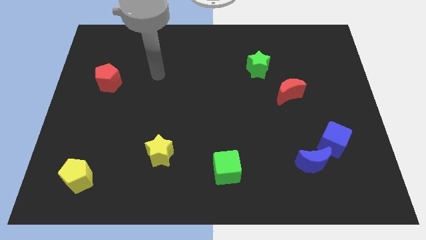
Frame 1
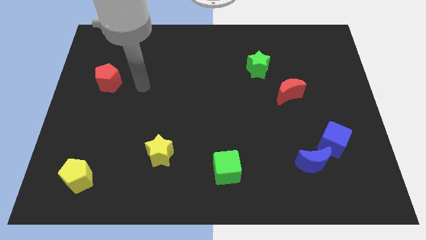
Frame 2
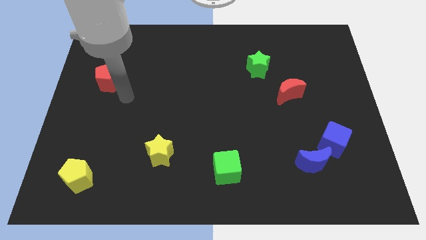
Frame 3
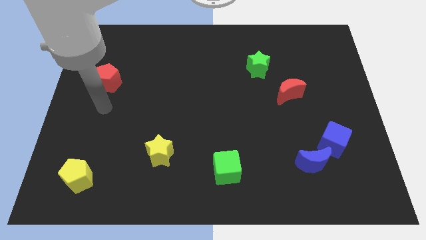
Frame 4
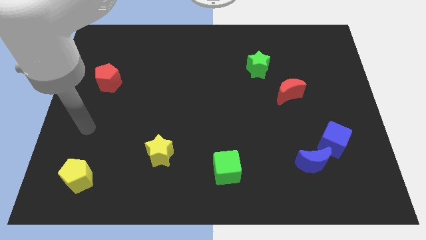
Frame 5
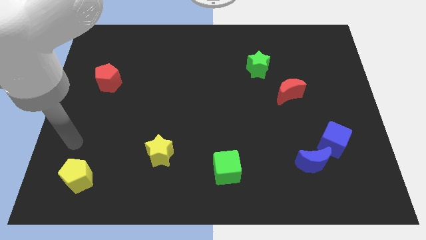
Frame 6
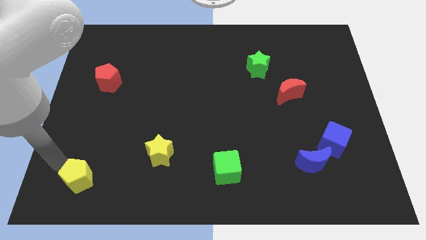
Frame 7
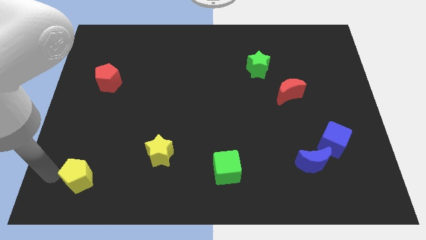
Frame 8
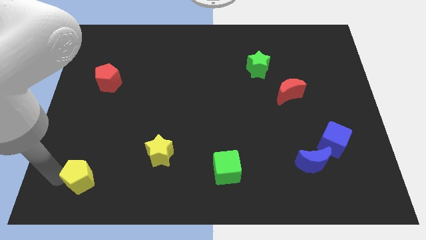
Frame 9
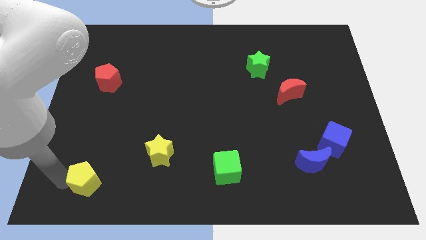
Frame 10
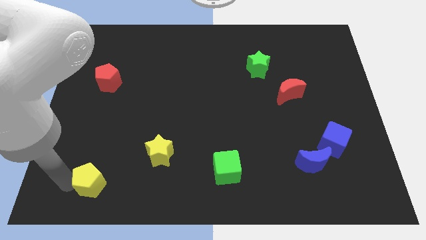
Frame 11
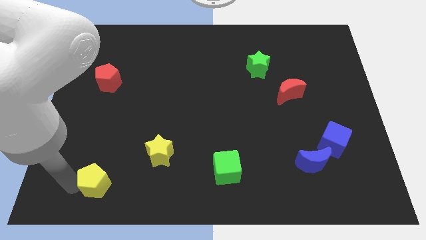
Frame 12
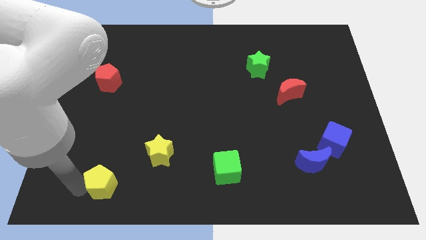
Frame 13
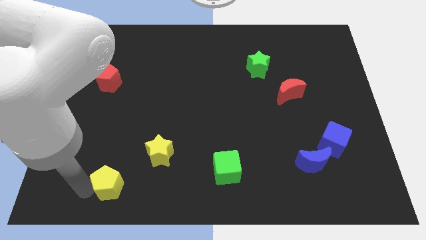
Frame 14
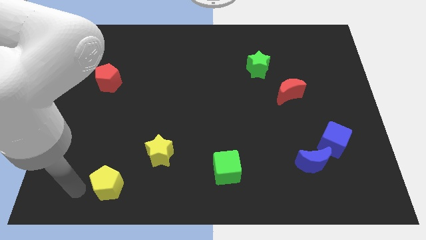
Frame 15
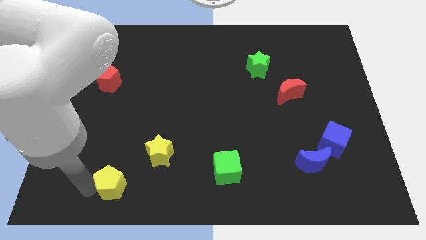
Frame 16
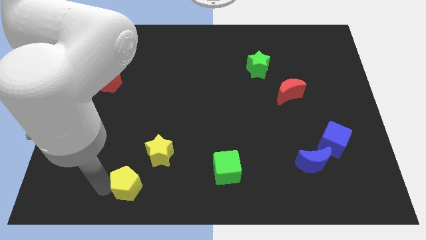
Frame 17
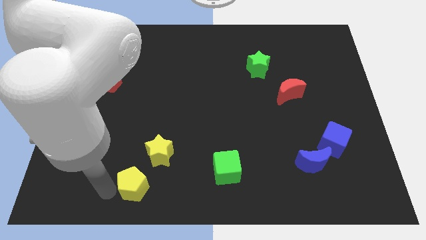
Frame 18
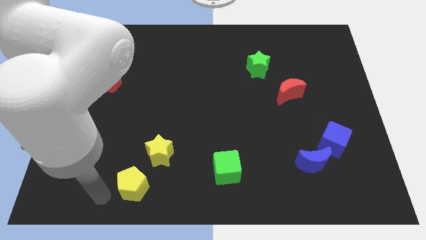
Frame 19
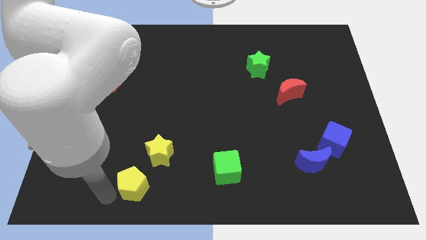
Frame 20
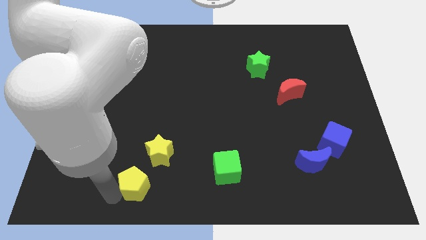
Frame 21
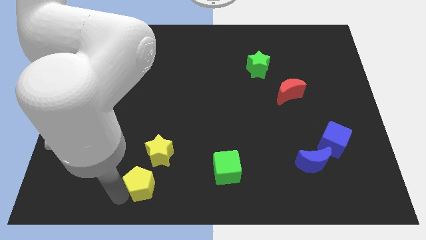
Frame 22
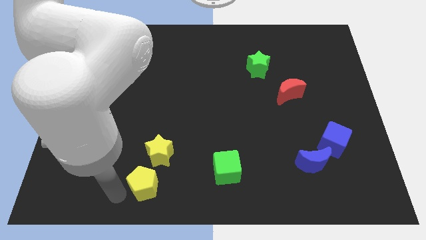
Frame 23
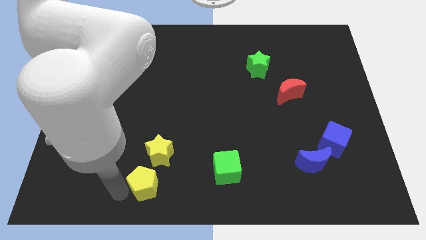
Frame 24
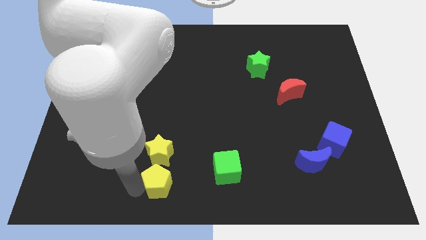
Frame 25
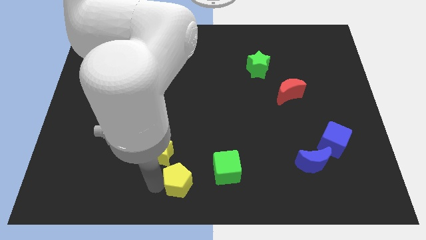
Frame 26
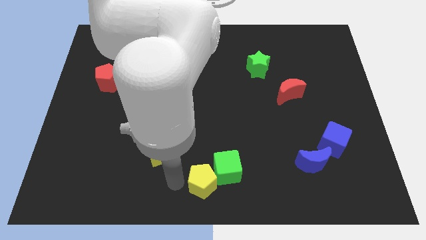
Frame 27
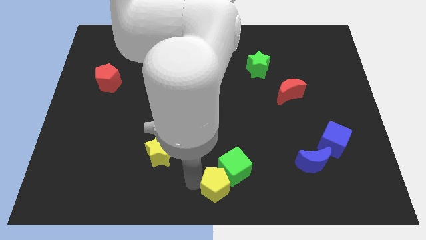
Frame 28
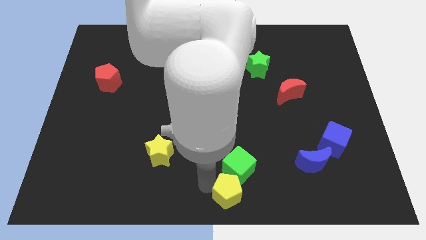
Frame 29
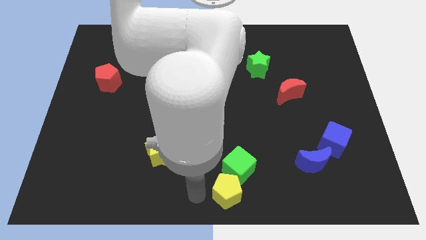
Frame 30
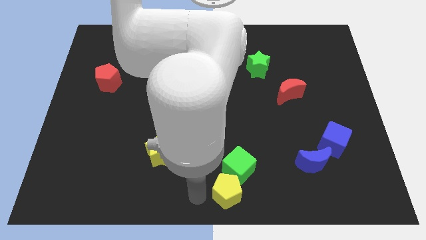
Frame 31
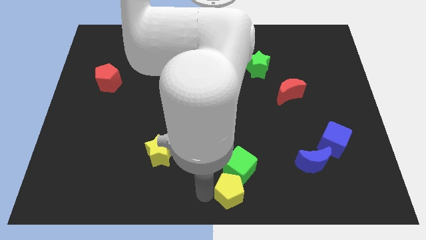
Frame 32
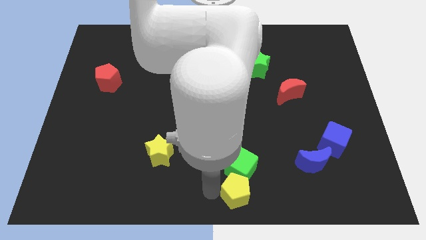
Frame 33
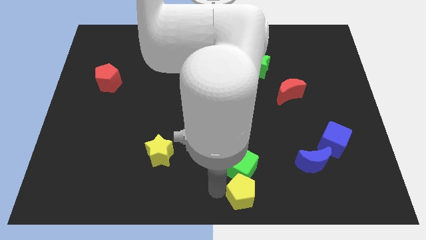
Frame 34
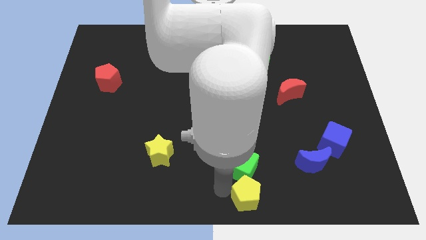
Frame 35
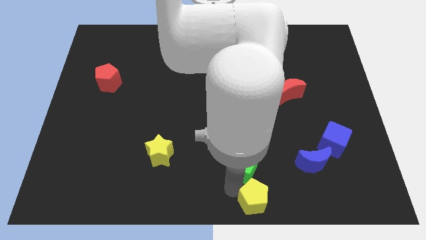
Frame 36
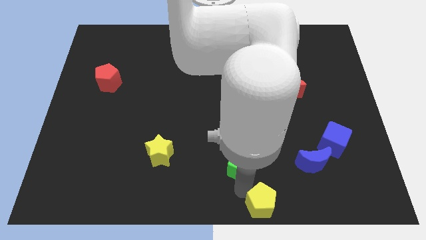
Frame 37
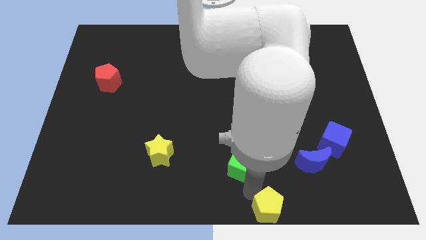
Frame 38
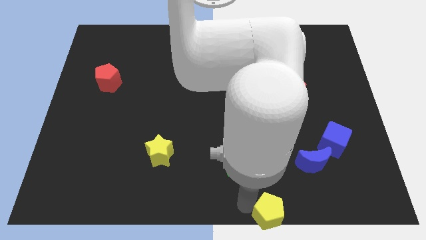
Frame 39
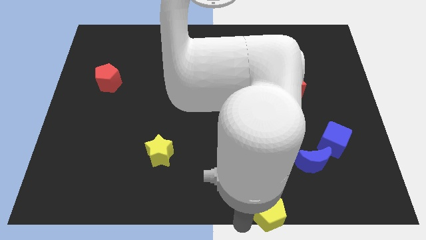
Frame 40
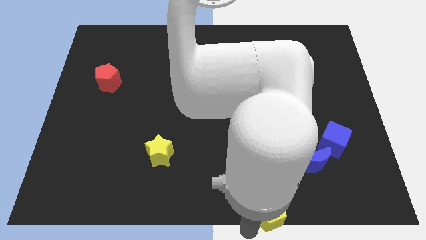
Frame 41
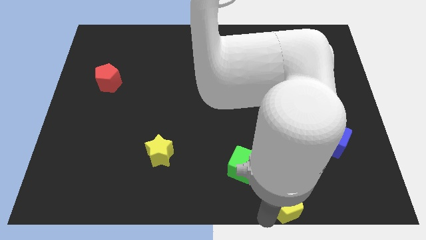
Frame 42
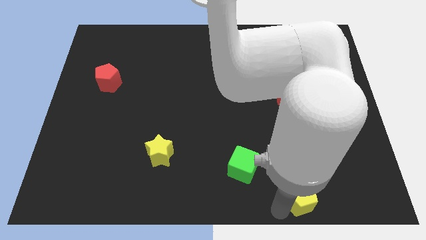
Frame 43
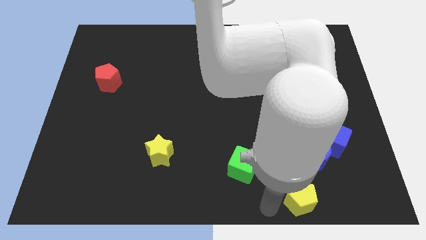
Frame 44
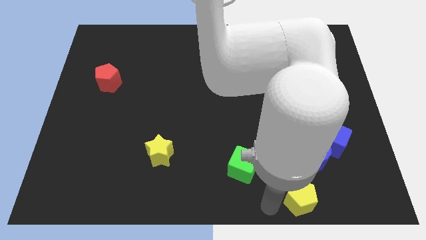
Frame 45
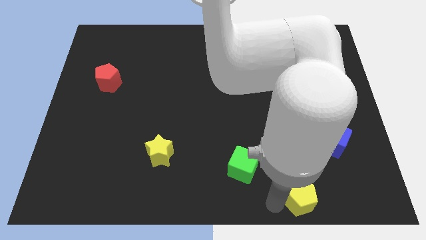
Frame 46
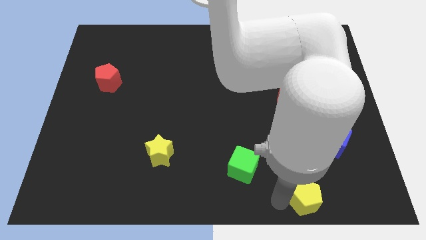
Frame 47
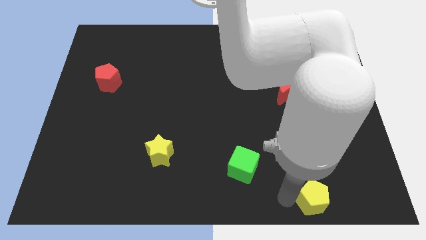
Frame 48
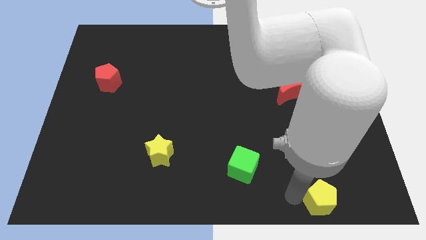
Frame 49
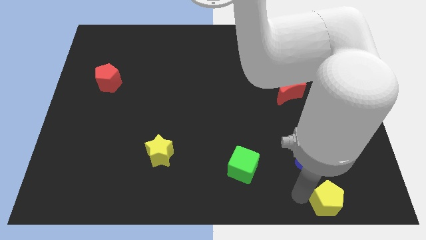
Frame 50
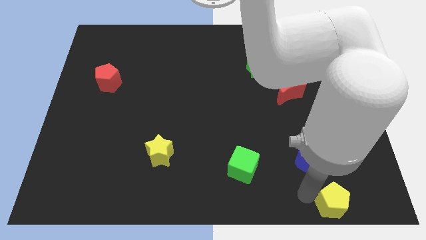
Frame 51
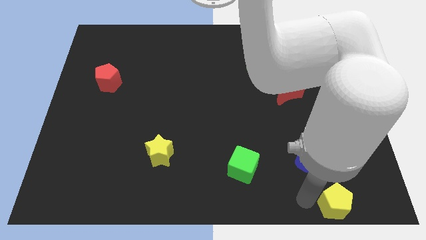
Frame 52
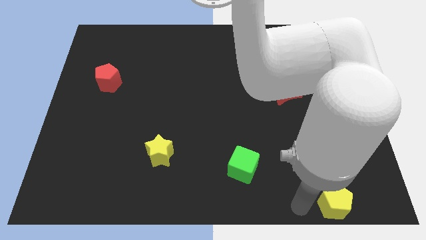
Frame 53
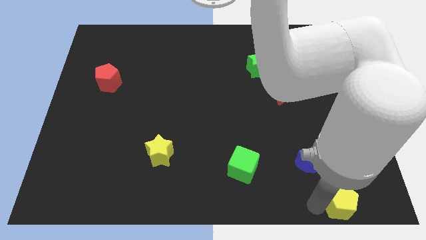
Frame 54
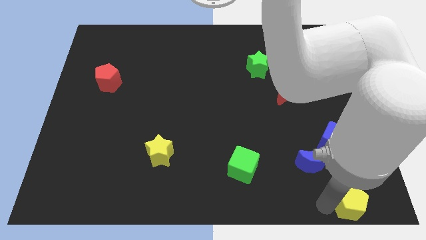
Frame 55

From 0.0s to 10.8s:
move the yellow pentagon to the lower right corner

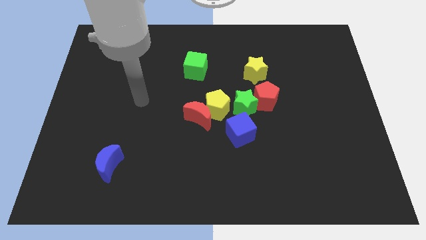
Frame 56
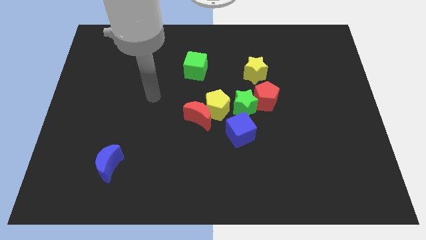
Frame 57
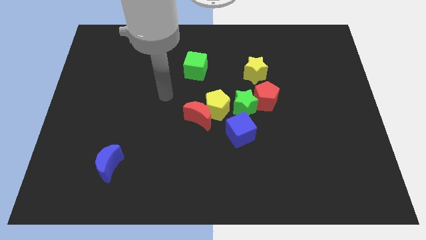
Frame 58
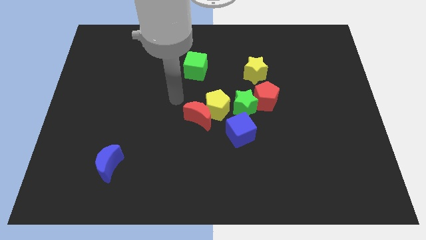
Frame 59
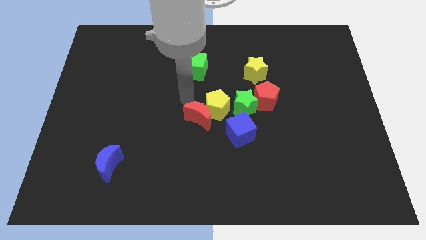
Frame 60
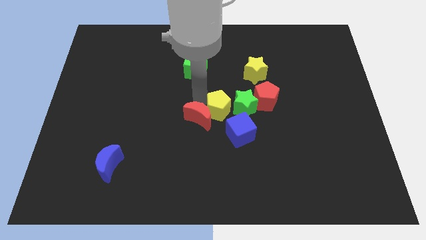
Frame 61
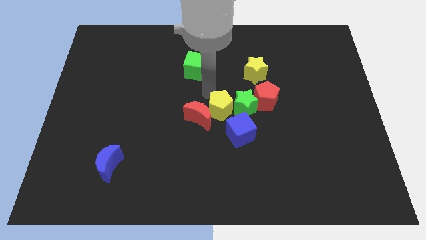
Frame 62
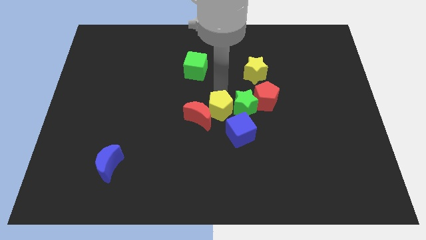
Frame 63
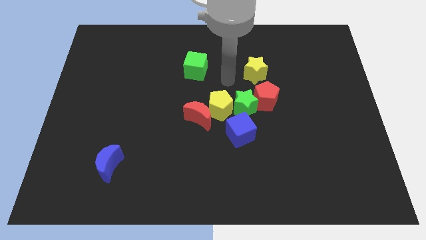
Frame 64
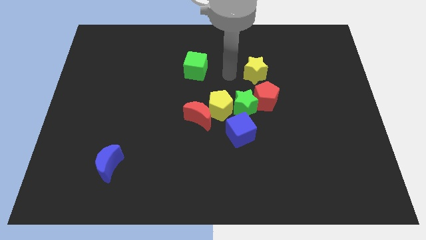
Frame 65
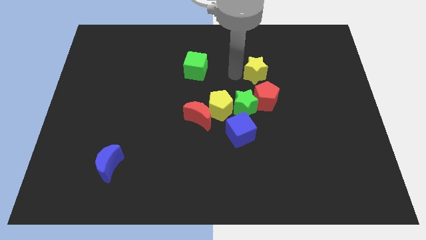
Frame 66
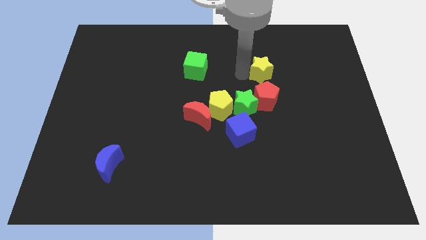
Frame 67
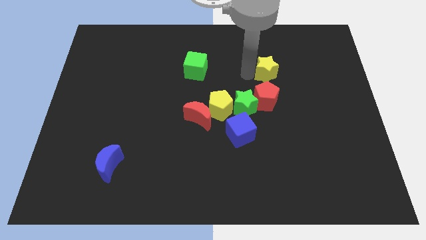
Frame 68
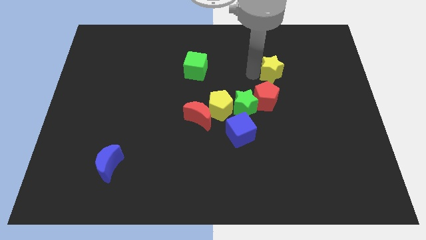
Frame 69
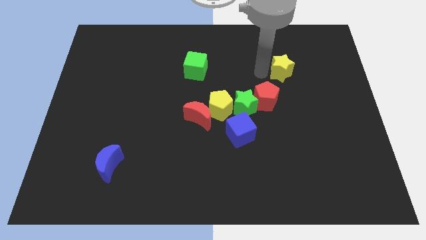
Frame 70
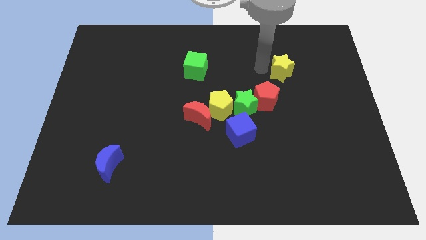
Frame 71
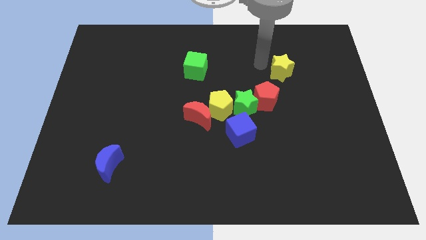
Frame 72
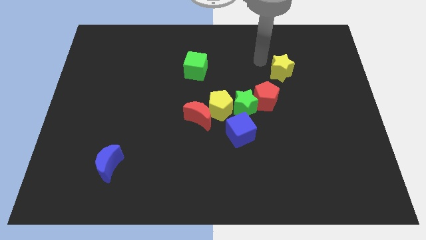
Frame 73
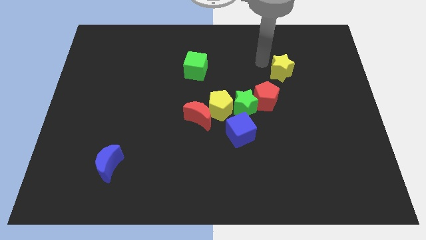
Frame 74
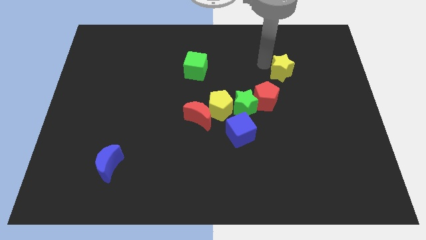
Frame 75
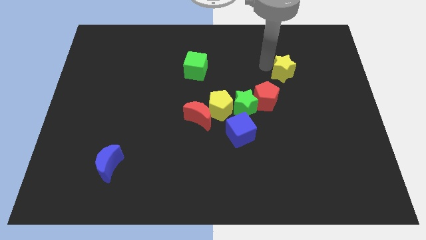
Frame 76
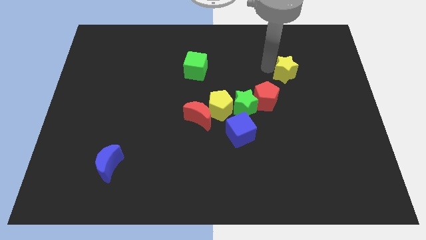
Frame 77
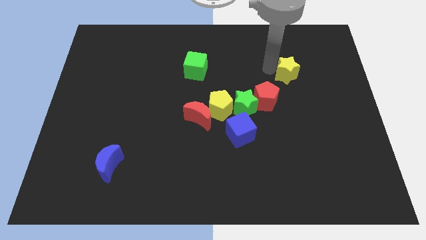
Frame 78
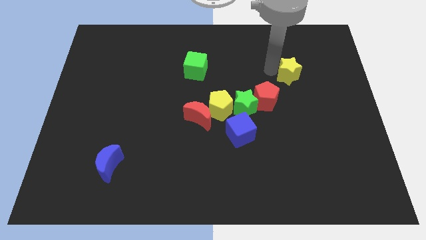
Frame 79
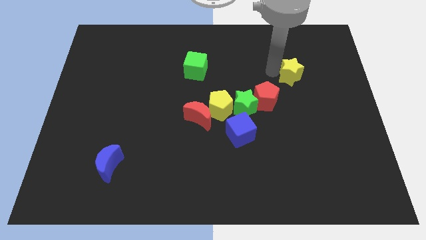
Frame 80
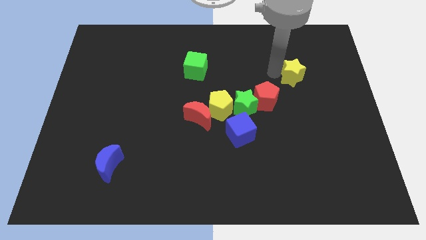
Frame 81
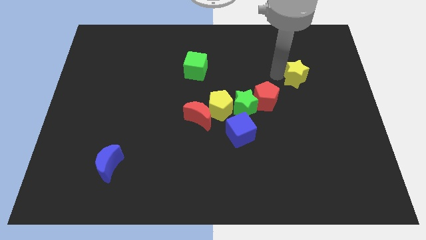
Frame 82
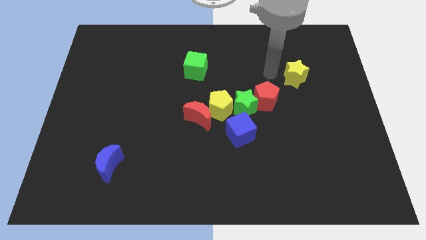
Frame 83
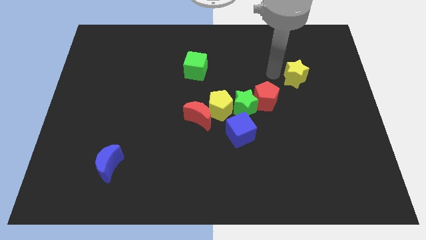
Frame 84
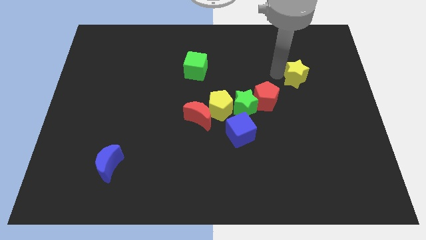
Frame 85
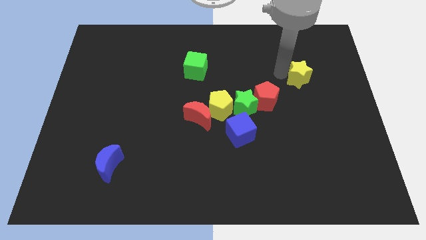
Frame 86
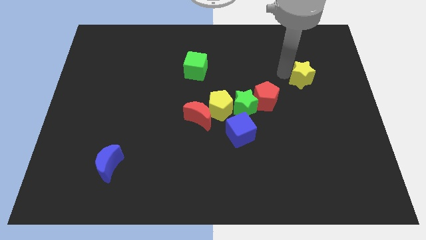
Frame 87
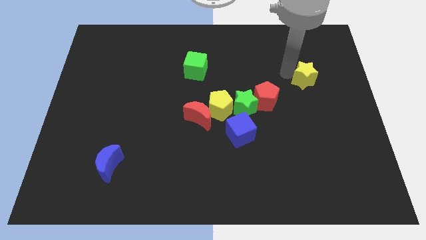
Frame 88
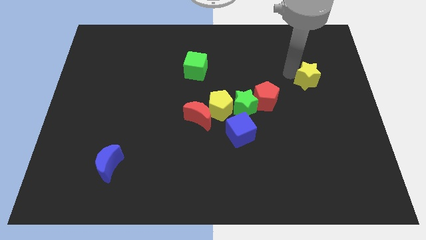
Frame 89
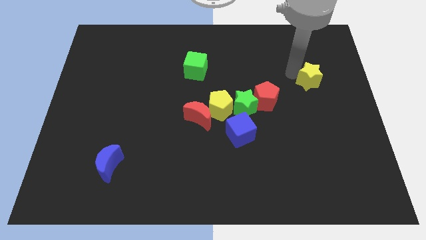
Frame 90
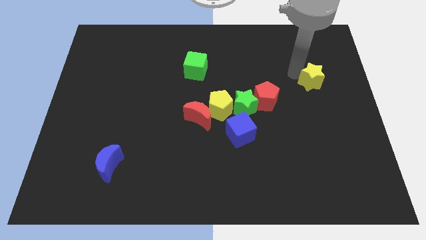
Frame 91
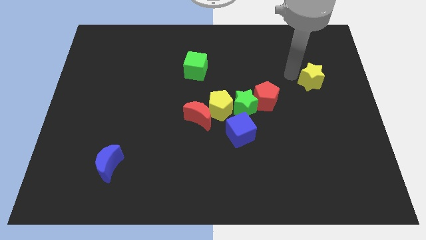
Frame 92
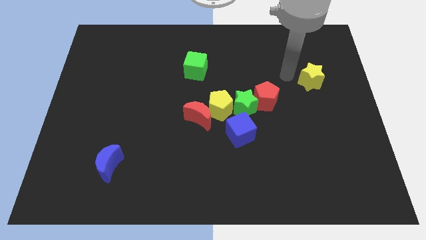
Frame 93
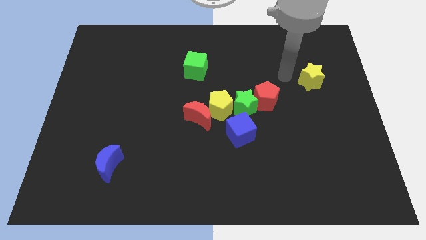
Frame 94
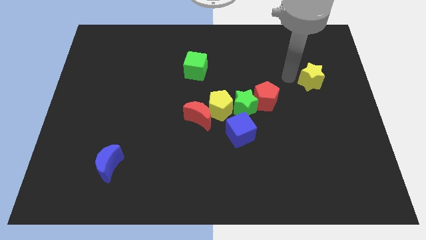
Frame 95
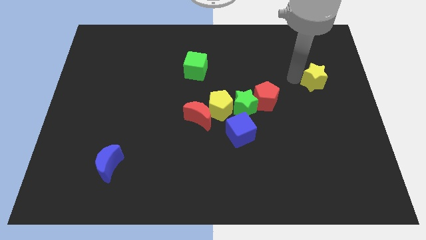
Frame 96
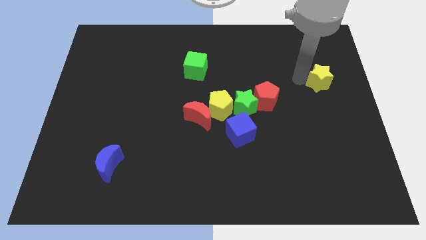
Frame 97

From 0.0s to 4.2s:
move the yellow star to the center right
